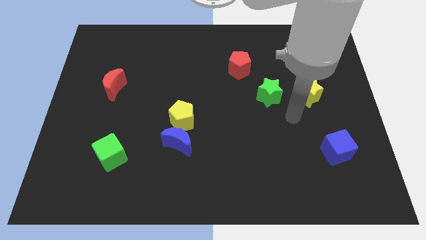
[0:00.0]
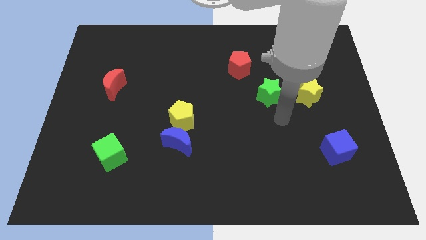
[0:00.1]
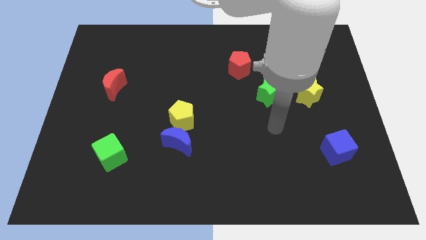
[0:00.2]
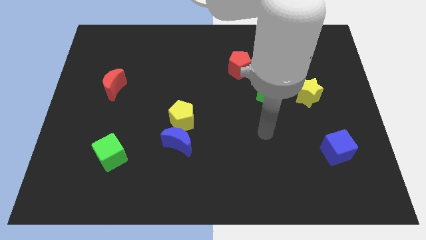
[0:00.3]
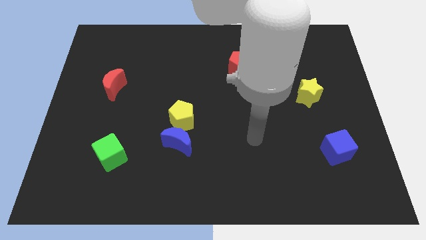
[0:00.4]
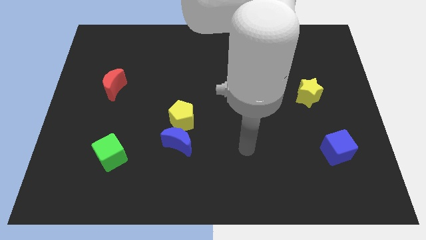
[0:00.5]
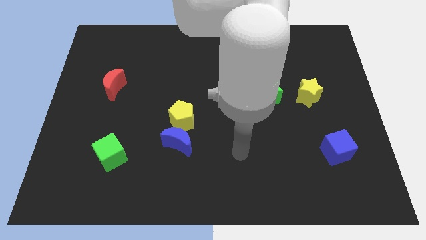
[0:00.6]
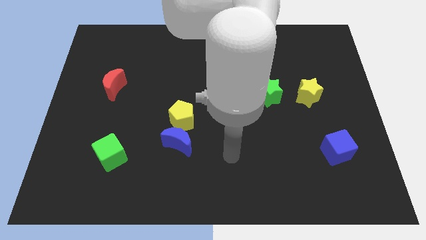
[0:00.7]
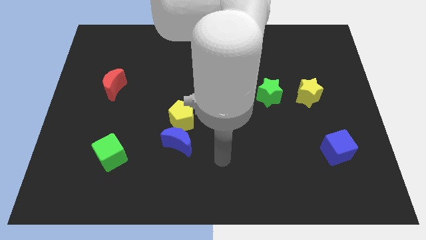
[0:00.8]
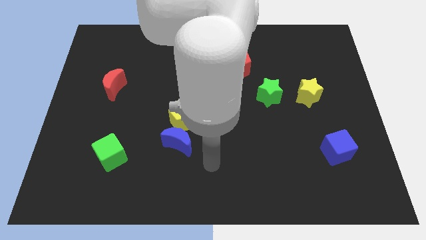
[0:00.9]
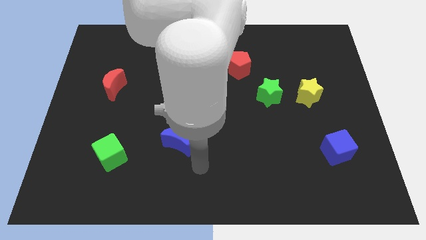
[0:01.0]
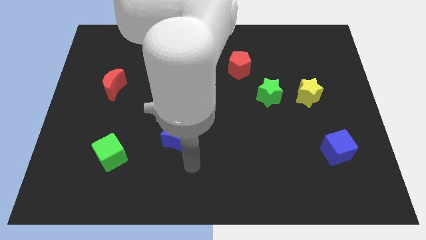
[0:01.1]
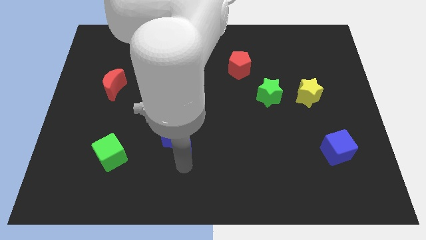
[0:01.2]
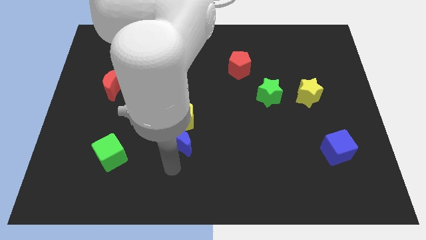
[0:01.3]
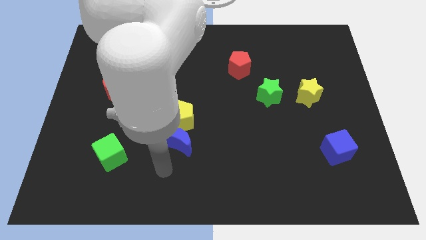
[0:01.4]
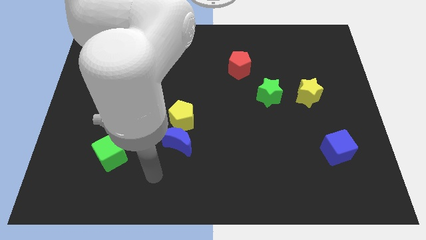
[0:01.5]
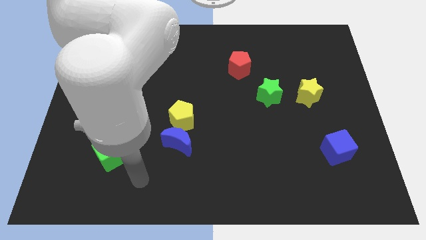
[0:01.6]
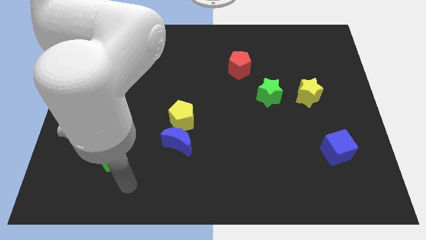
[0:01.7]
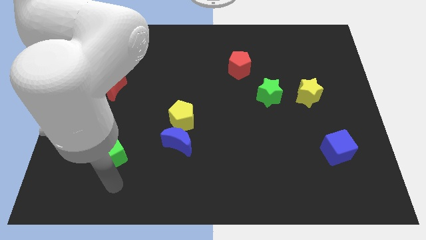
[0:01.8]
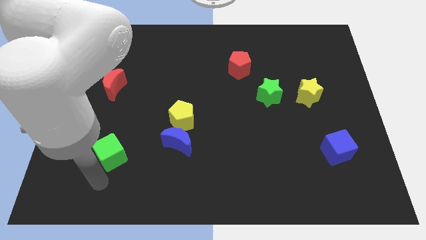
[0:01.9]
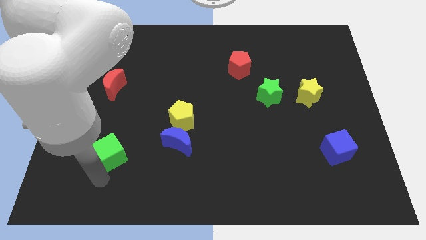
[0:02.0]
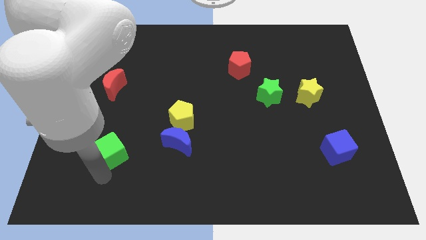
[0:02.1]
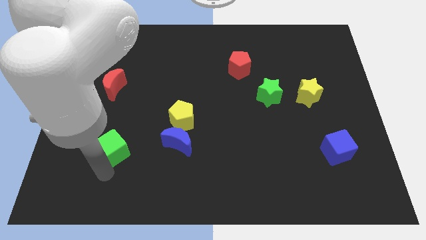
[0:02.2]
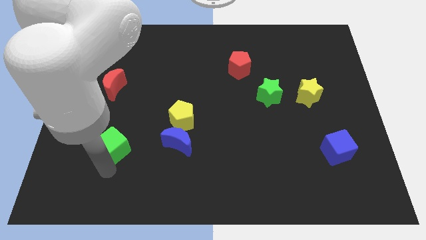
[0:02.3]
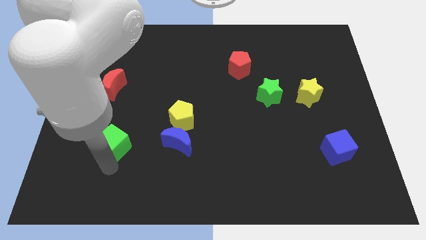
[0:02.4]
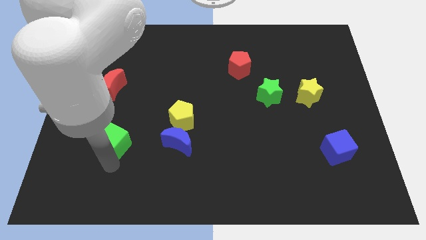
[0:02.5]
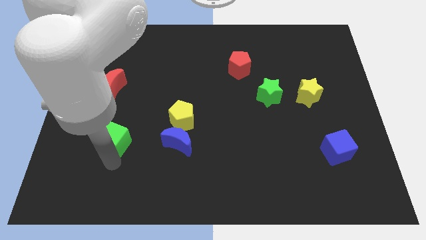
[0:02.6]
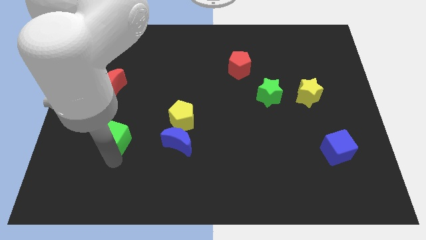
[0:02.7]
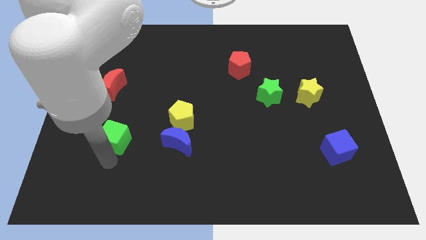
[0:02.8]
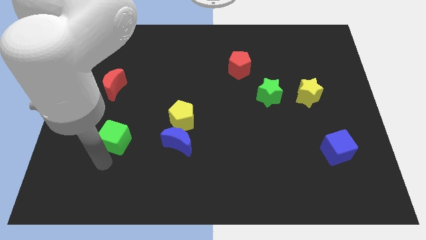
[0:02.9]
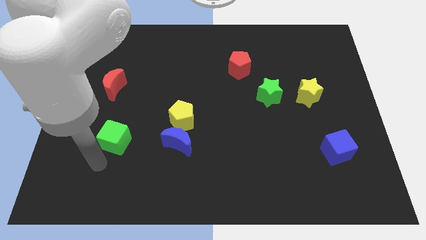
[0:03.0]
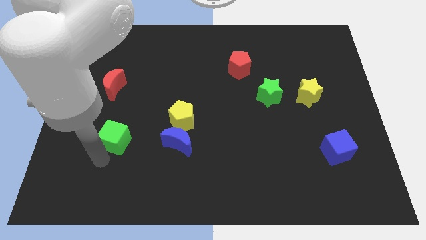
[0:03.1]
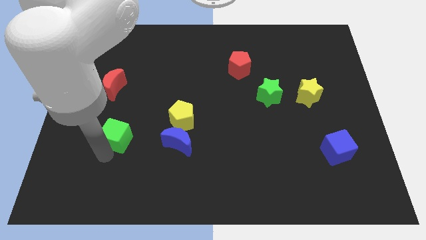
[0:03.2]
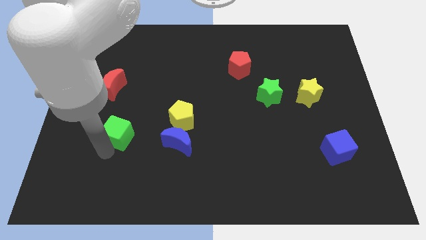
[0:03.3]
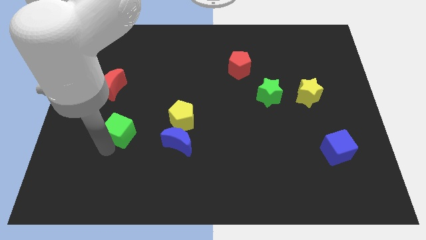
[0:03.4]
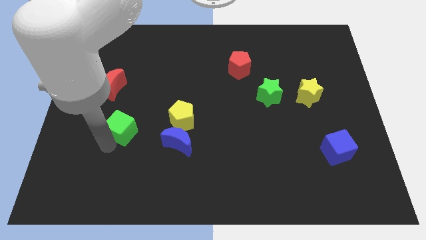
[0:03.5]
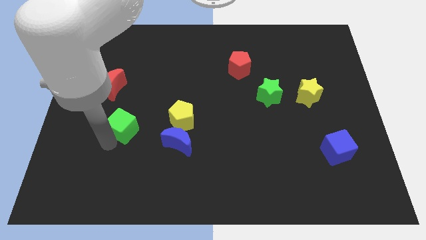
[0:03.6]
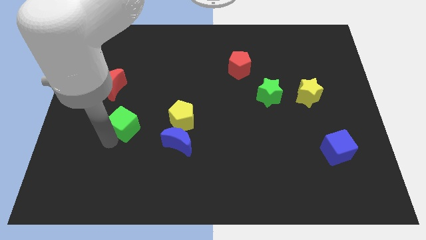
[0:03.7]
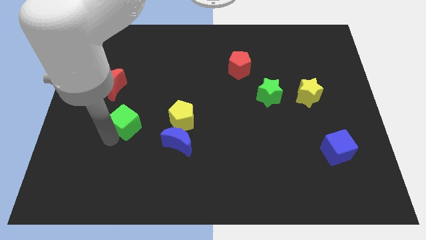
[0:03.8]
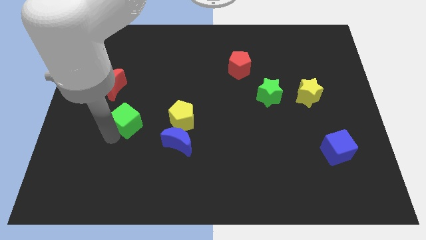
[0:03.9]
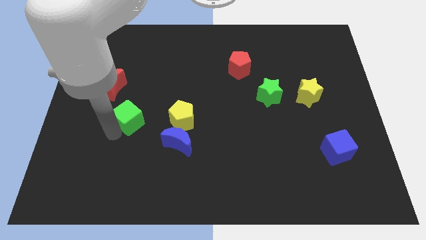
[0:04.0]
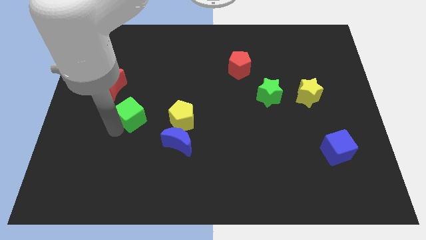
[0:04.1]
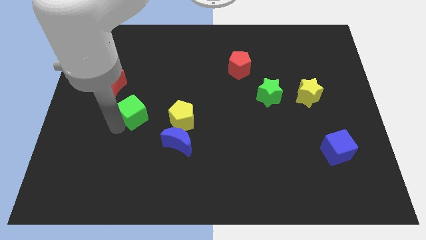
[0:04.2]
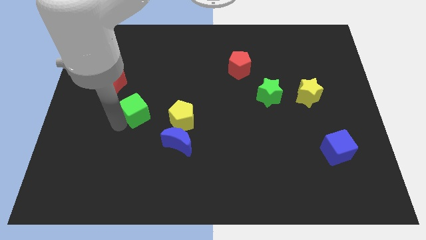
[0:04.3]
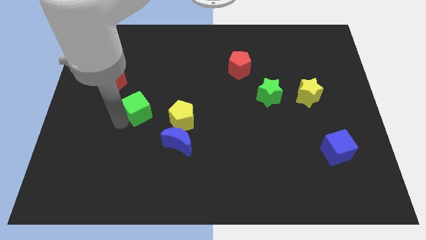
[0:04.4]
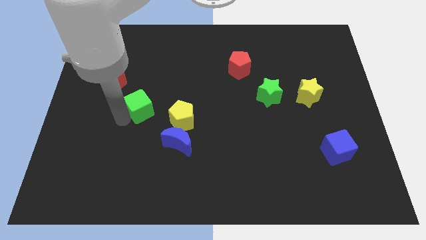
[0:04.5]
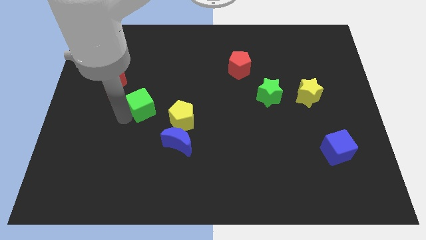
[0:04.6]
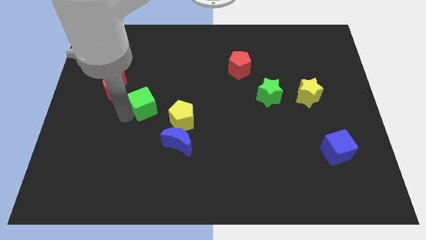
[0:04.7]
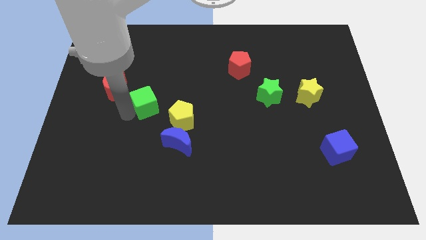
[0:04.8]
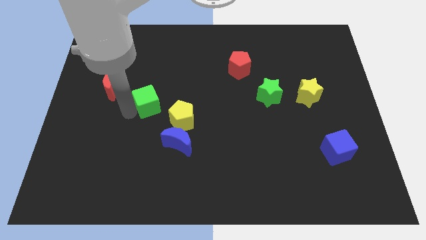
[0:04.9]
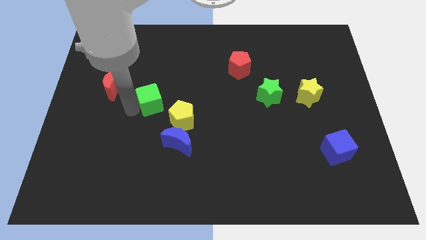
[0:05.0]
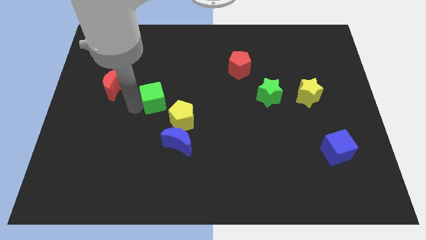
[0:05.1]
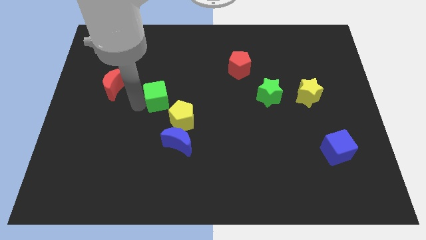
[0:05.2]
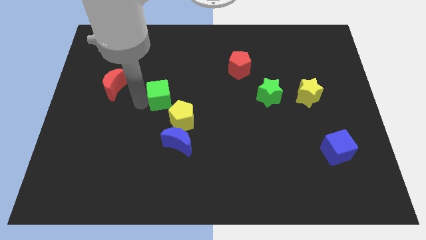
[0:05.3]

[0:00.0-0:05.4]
put the green cube to the middle

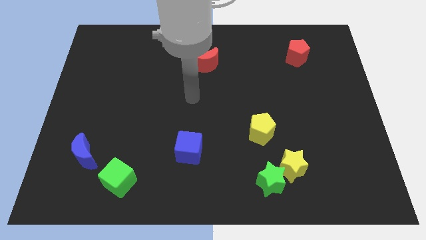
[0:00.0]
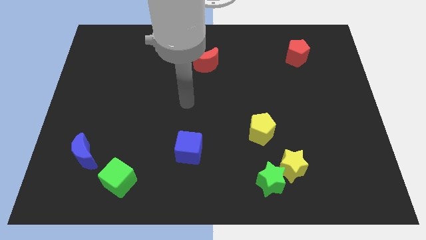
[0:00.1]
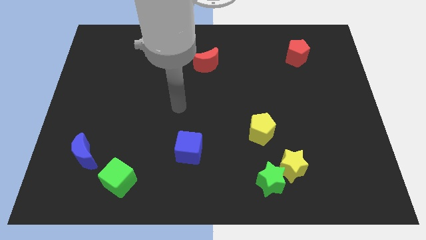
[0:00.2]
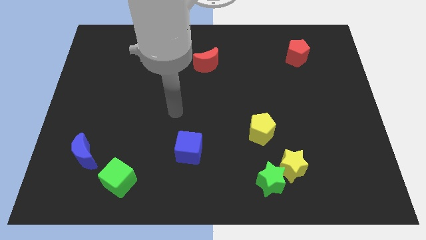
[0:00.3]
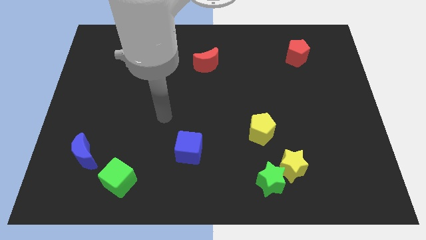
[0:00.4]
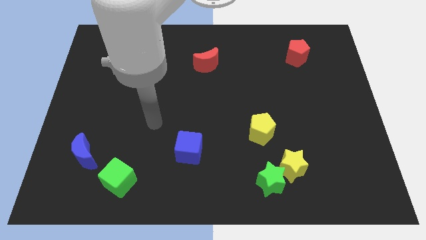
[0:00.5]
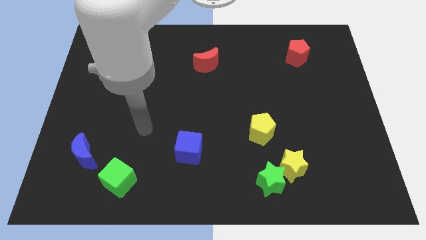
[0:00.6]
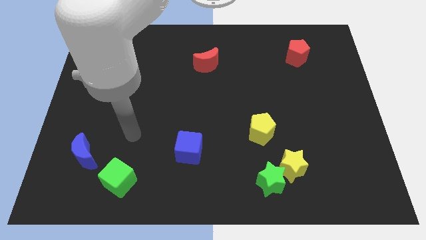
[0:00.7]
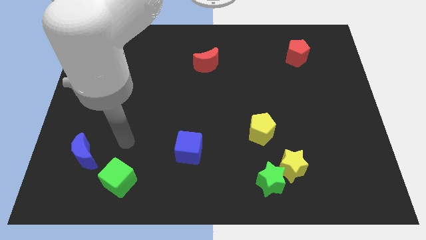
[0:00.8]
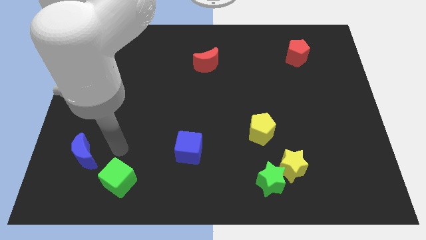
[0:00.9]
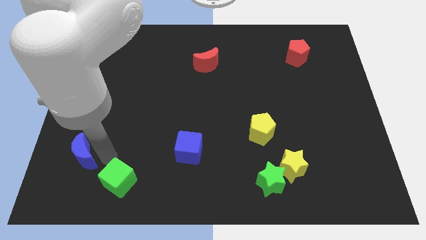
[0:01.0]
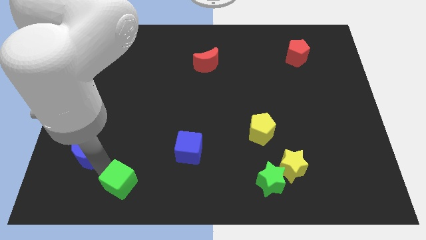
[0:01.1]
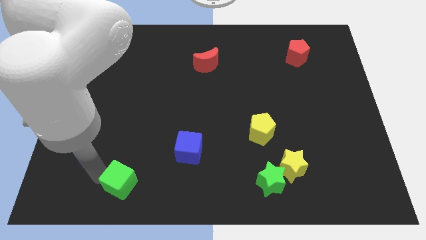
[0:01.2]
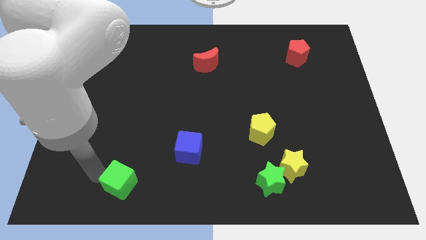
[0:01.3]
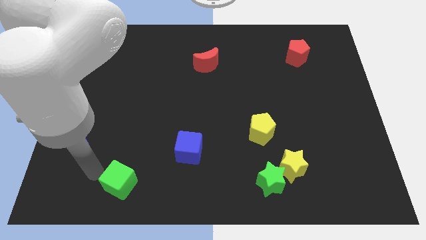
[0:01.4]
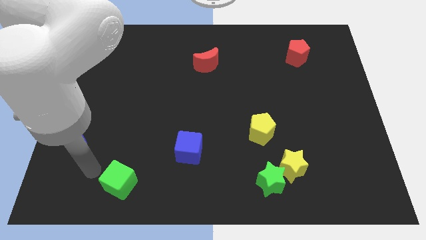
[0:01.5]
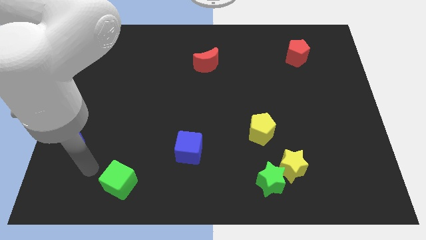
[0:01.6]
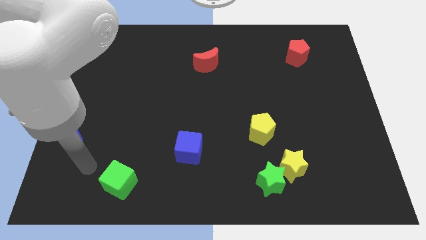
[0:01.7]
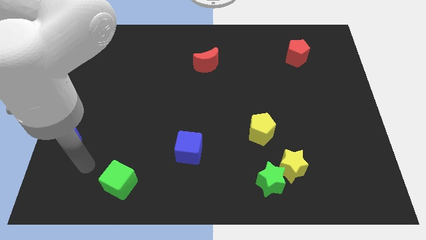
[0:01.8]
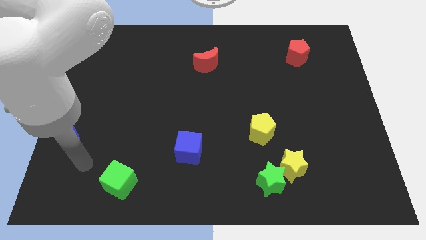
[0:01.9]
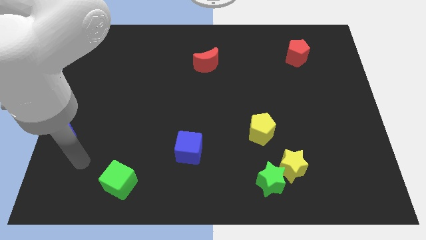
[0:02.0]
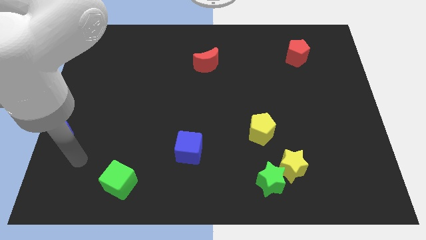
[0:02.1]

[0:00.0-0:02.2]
put the blue moon to the left side
